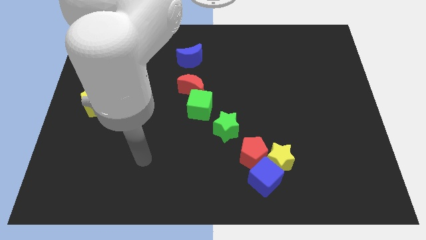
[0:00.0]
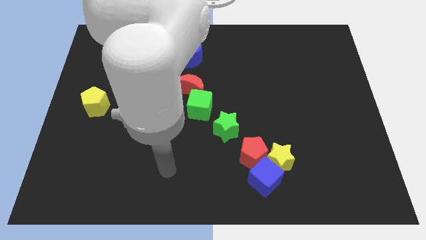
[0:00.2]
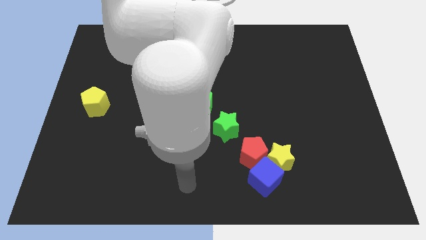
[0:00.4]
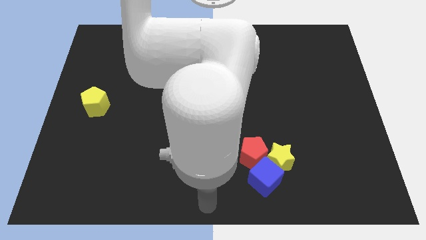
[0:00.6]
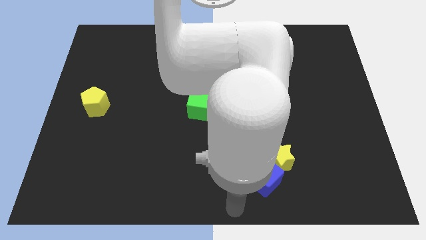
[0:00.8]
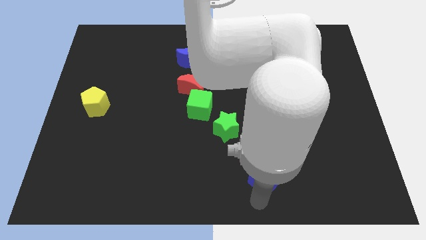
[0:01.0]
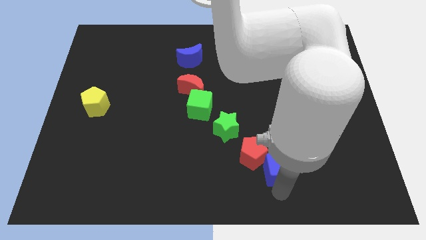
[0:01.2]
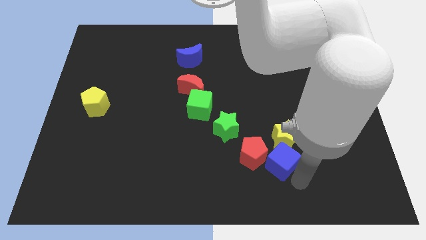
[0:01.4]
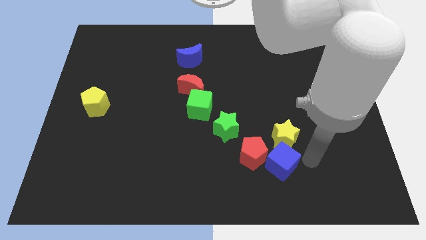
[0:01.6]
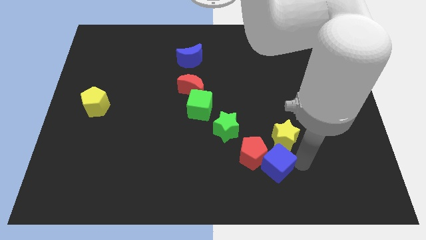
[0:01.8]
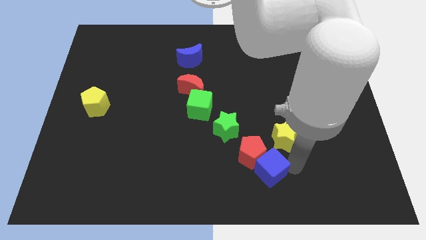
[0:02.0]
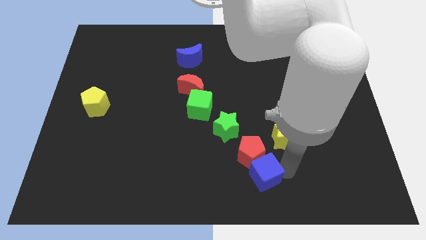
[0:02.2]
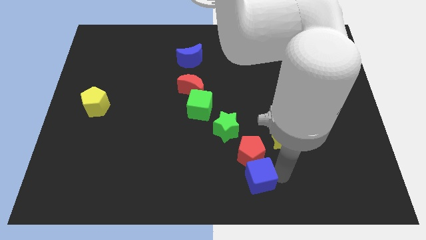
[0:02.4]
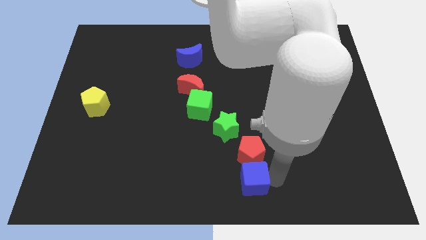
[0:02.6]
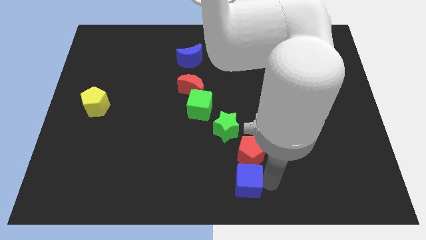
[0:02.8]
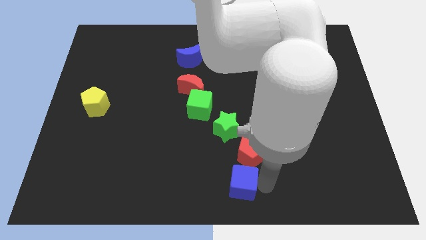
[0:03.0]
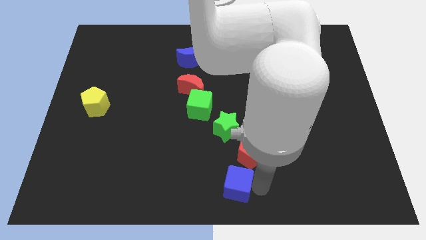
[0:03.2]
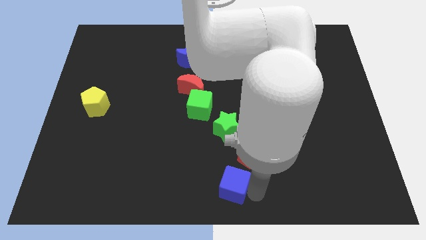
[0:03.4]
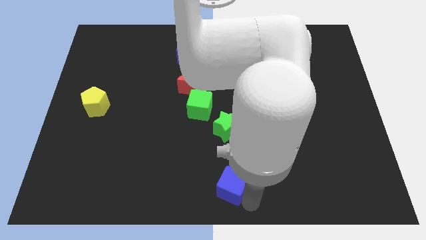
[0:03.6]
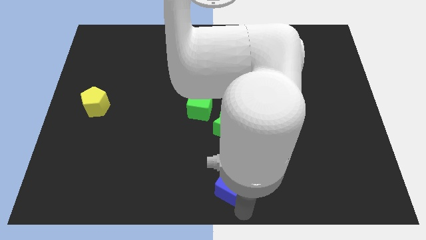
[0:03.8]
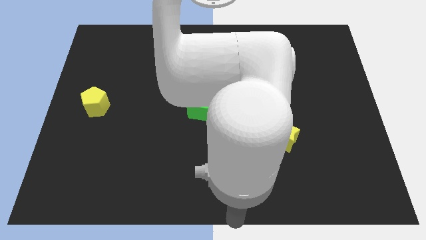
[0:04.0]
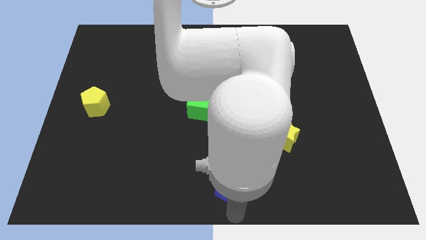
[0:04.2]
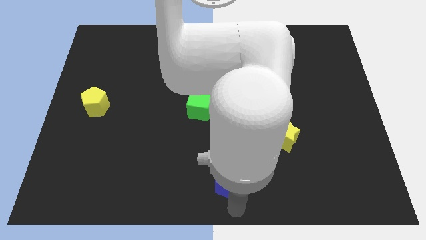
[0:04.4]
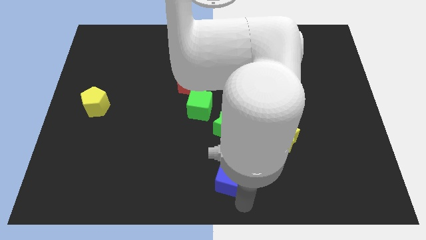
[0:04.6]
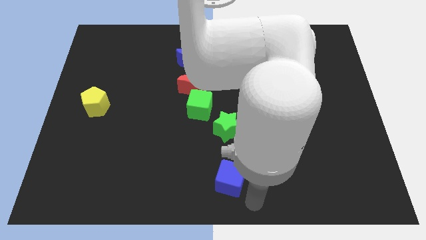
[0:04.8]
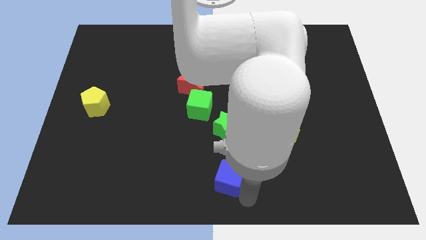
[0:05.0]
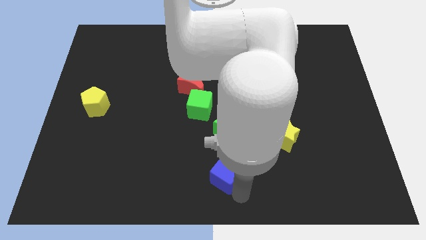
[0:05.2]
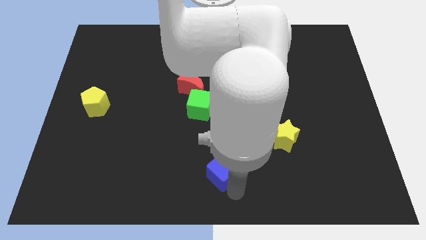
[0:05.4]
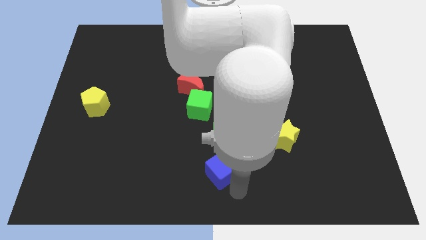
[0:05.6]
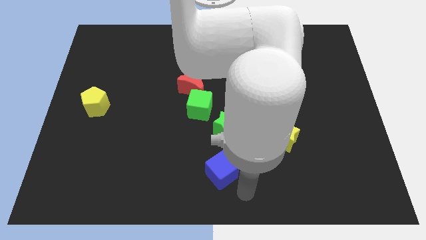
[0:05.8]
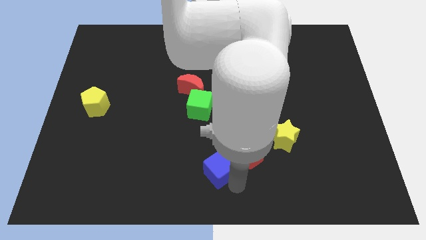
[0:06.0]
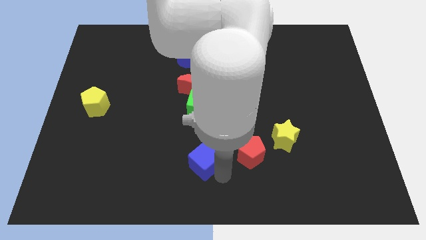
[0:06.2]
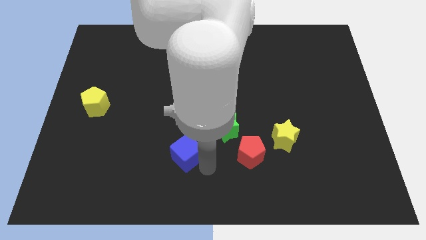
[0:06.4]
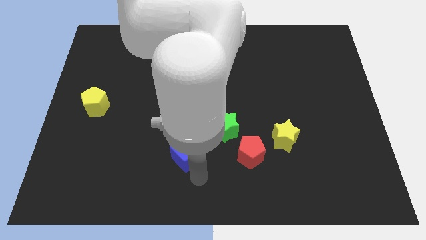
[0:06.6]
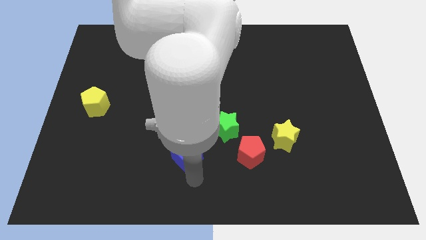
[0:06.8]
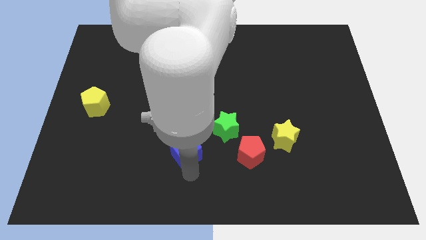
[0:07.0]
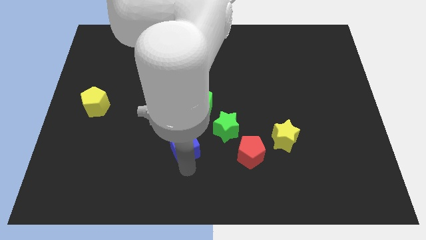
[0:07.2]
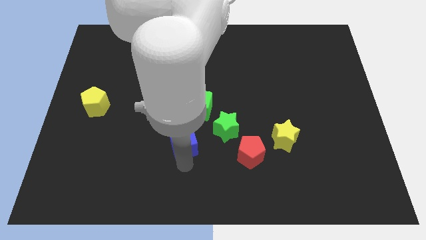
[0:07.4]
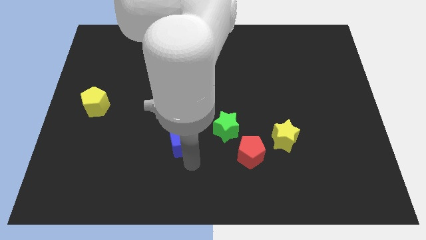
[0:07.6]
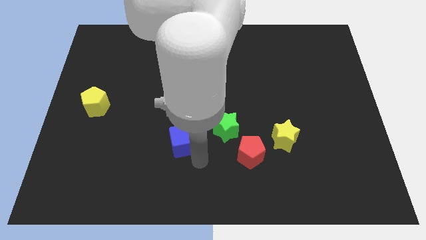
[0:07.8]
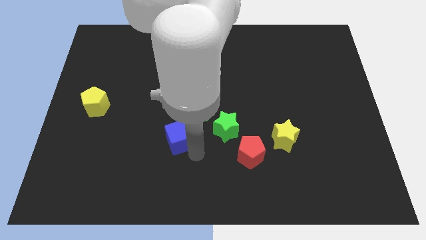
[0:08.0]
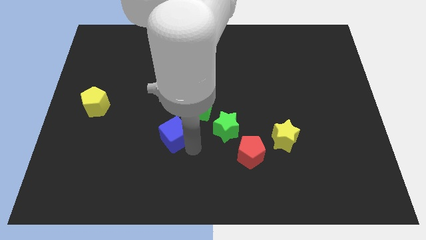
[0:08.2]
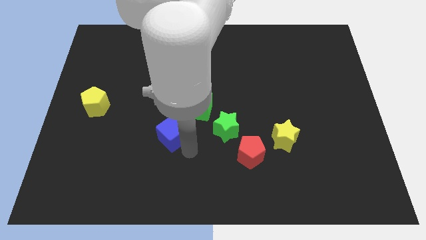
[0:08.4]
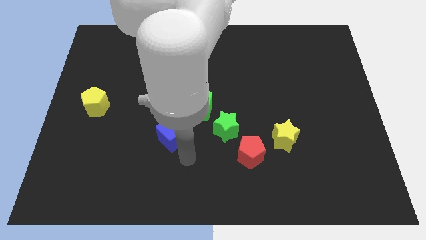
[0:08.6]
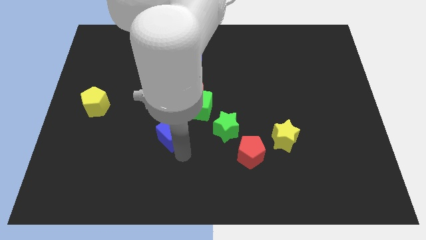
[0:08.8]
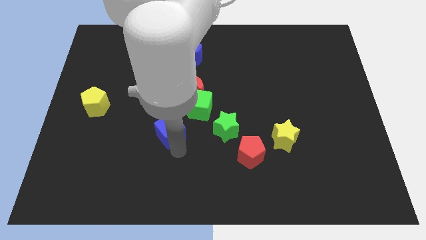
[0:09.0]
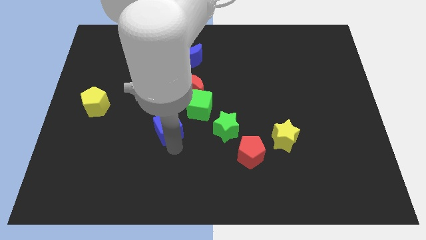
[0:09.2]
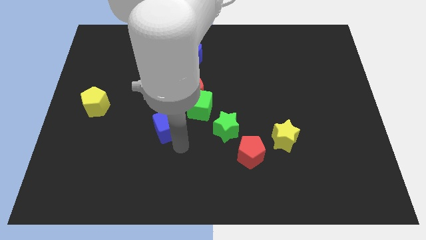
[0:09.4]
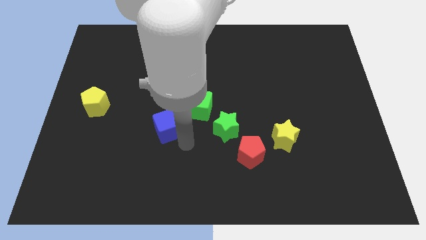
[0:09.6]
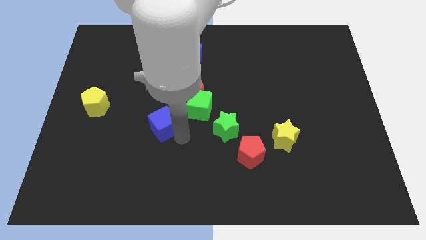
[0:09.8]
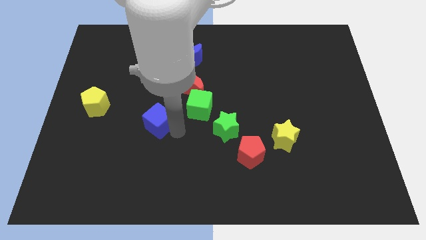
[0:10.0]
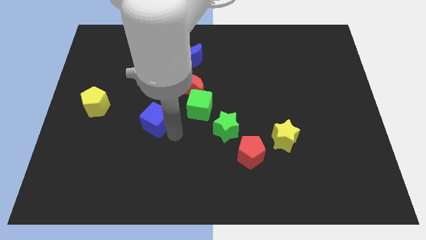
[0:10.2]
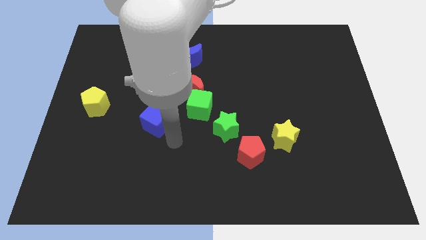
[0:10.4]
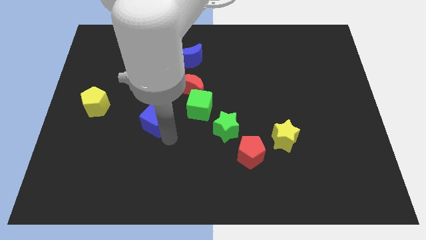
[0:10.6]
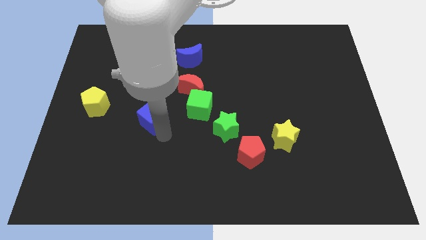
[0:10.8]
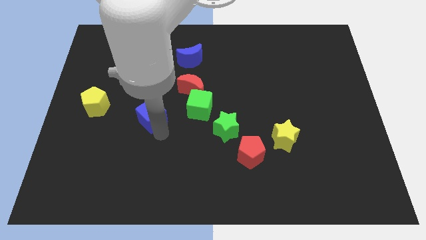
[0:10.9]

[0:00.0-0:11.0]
move the blue cube to the right of the yellow pentagon

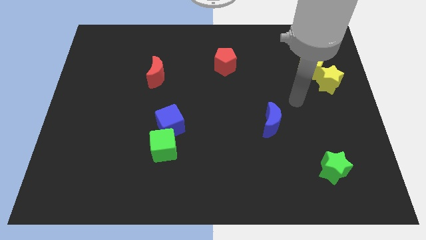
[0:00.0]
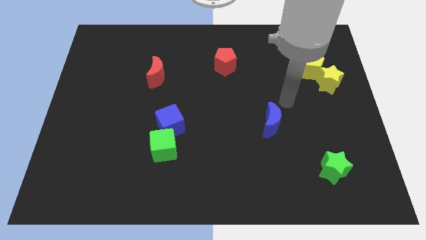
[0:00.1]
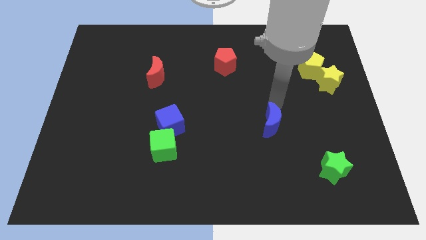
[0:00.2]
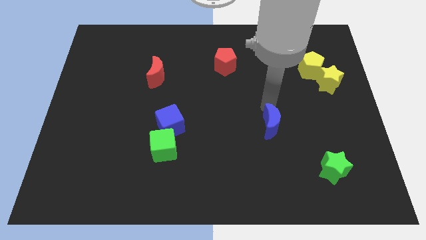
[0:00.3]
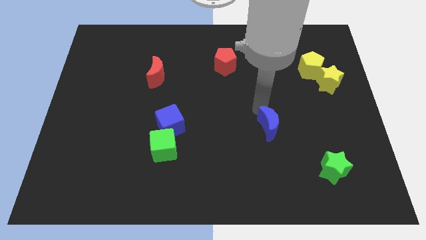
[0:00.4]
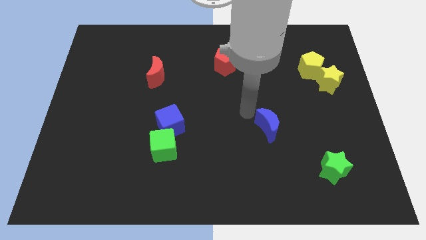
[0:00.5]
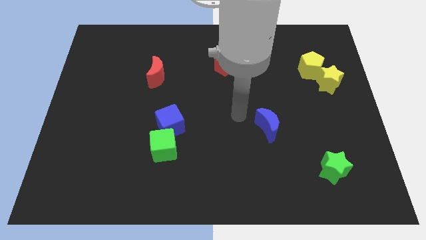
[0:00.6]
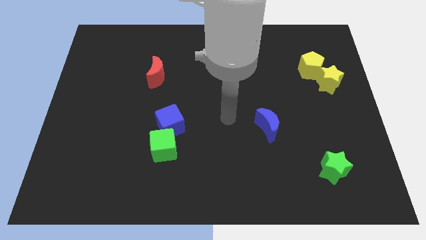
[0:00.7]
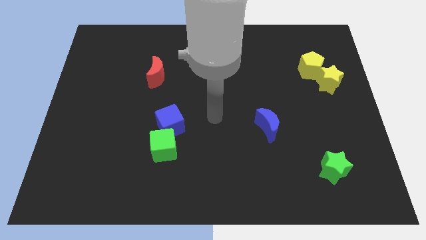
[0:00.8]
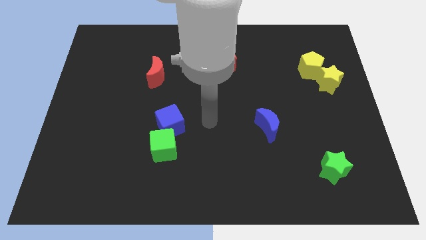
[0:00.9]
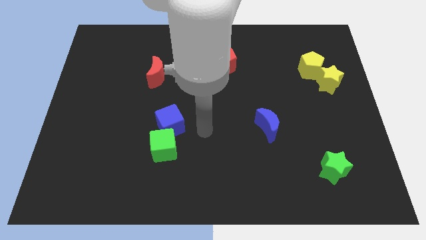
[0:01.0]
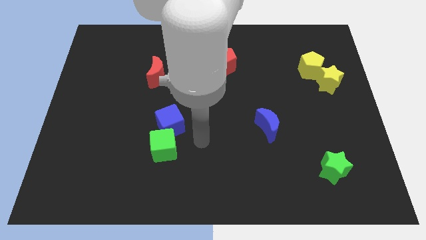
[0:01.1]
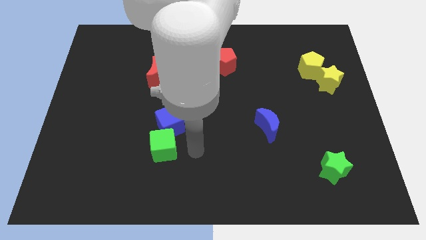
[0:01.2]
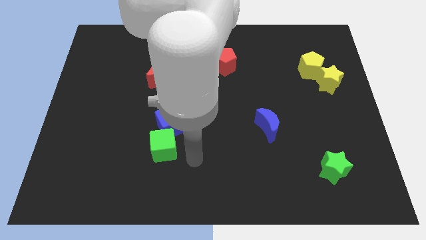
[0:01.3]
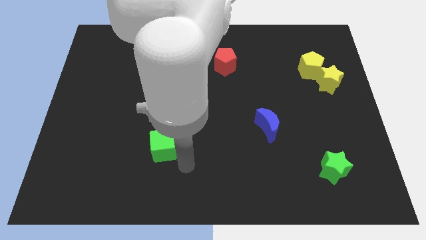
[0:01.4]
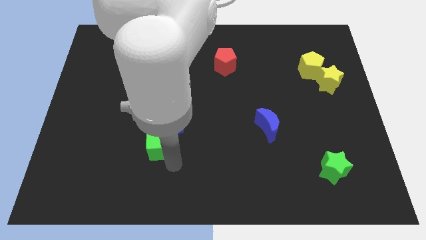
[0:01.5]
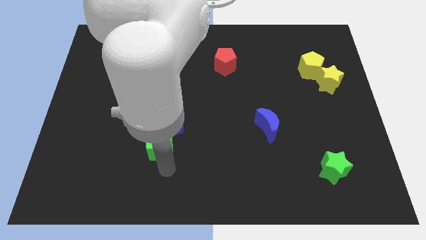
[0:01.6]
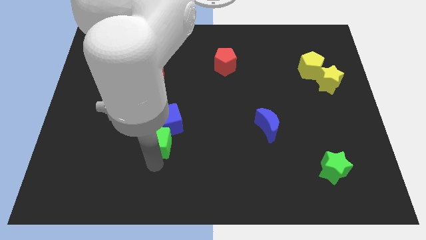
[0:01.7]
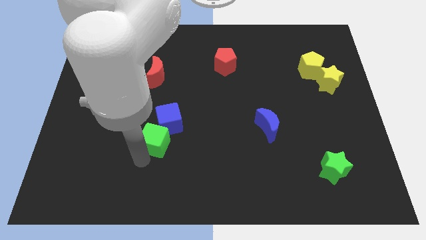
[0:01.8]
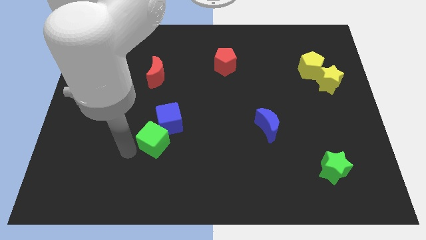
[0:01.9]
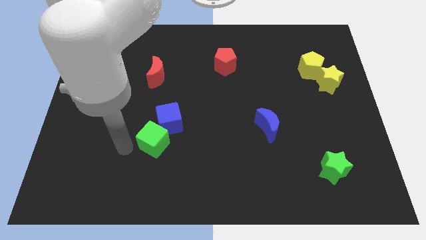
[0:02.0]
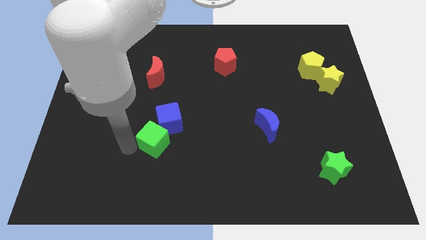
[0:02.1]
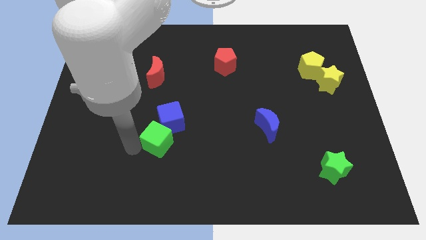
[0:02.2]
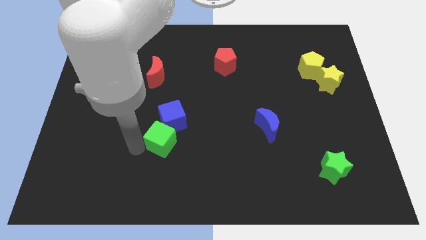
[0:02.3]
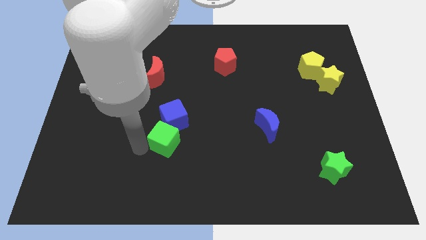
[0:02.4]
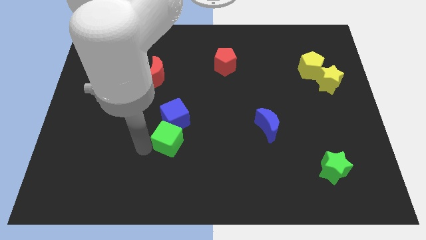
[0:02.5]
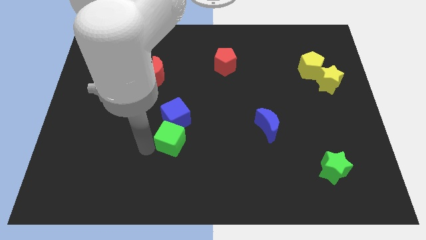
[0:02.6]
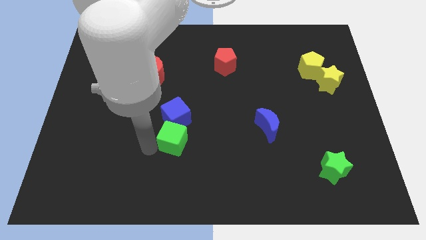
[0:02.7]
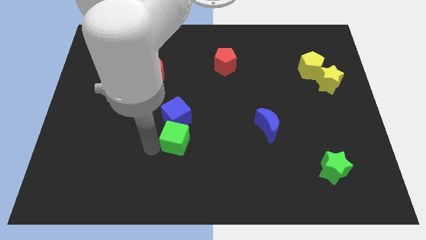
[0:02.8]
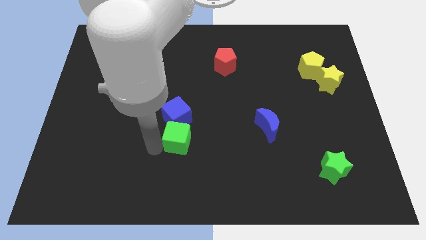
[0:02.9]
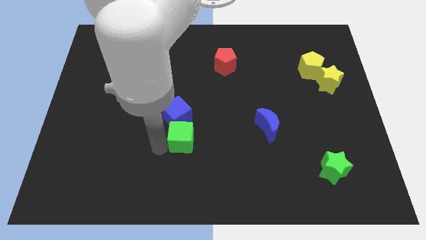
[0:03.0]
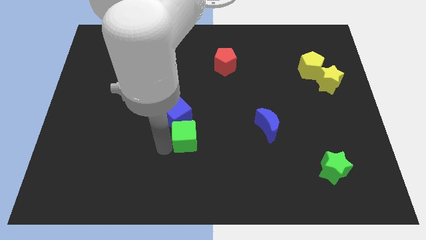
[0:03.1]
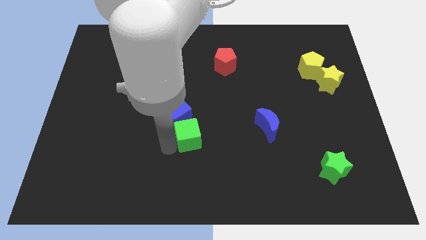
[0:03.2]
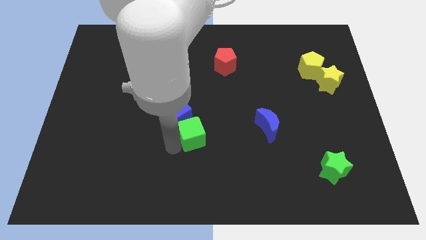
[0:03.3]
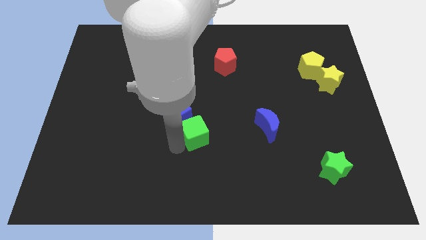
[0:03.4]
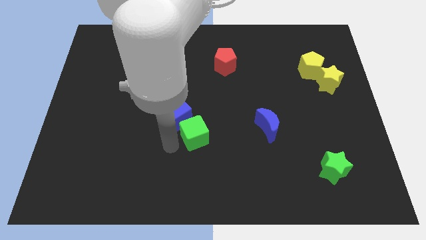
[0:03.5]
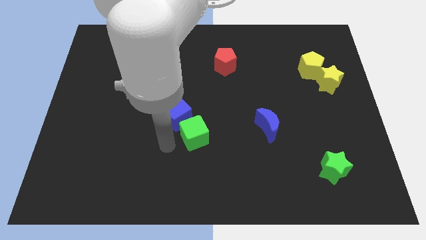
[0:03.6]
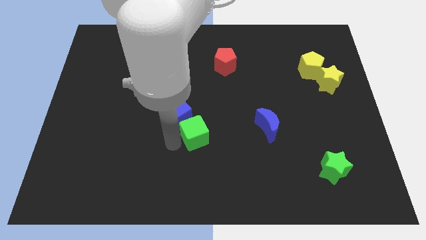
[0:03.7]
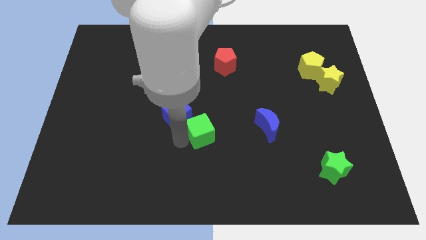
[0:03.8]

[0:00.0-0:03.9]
put the green cube to the left side of the blue moon
